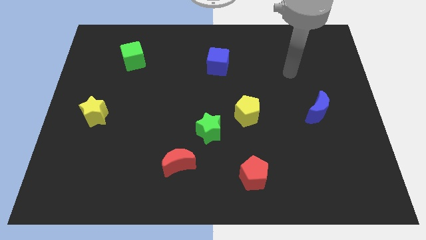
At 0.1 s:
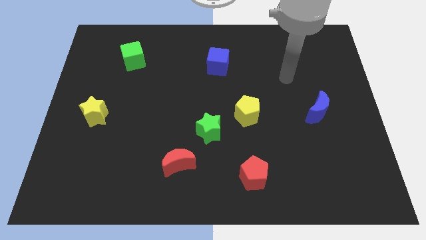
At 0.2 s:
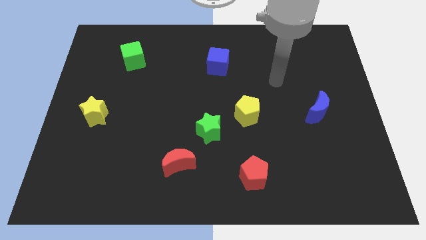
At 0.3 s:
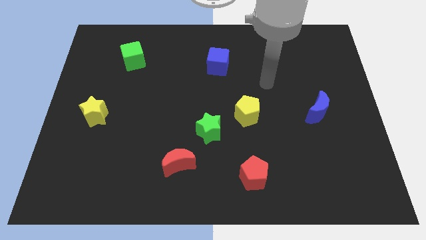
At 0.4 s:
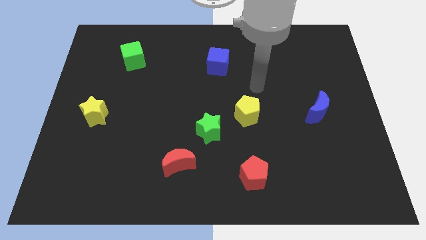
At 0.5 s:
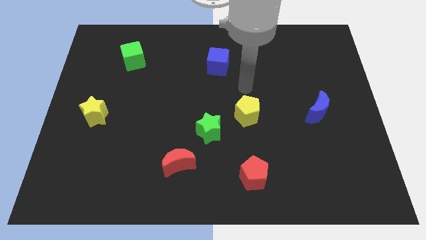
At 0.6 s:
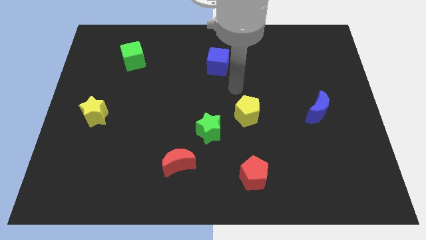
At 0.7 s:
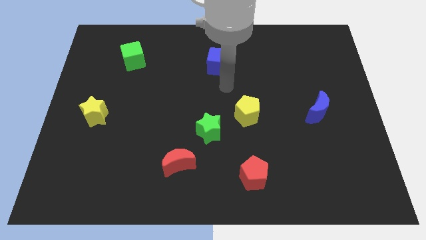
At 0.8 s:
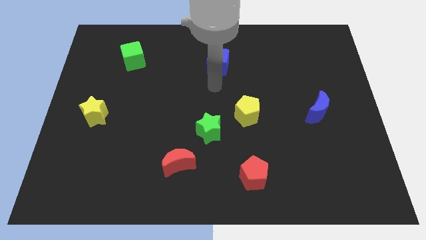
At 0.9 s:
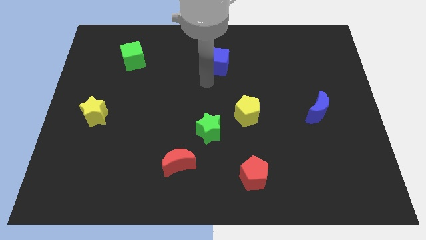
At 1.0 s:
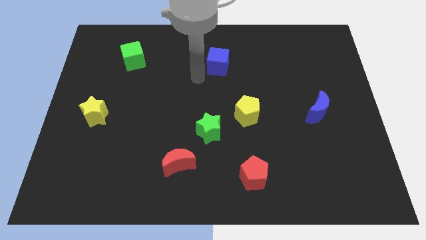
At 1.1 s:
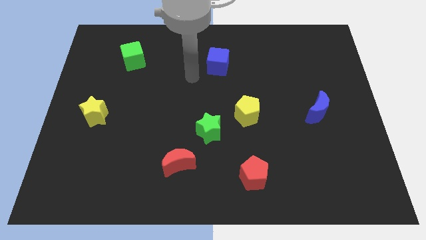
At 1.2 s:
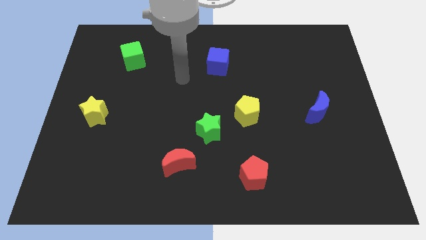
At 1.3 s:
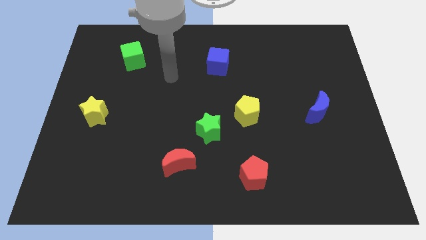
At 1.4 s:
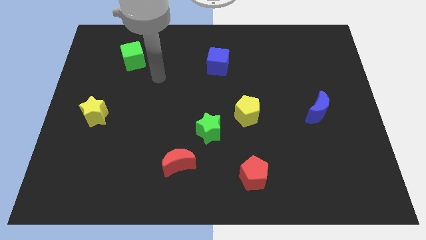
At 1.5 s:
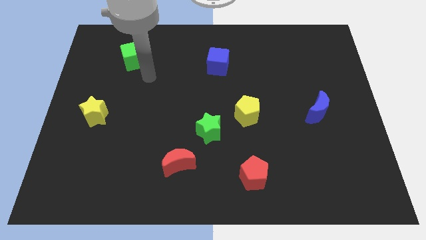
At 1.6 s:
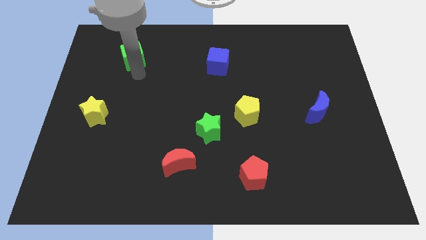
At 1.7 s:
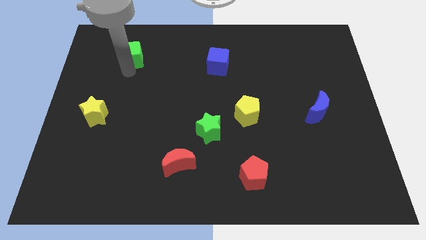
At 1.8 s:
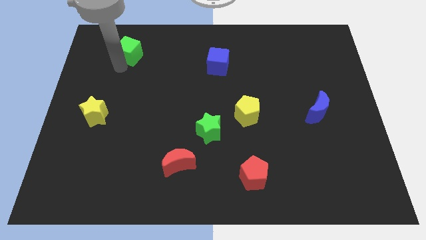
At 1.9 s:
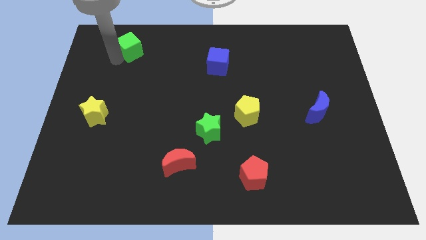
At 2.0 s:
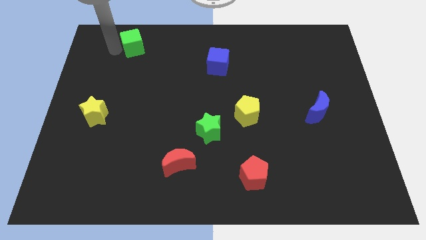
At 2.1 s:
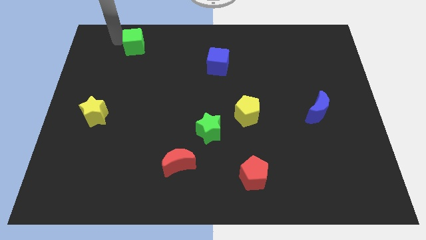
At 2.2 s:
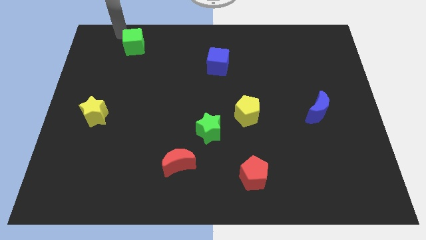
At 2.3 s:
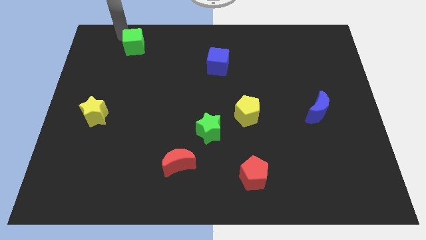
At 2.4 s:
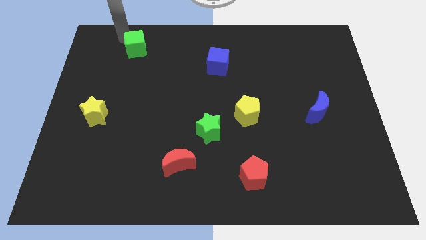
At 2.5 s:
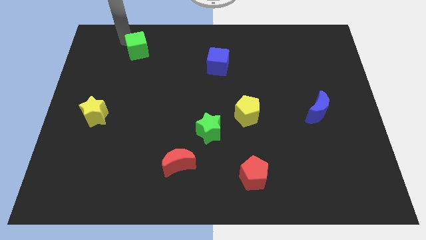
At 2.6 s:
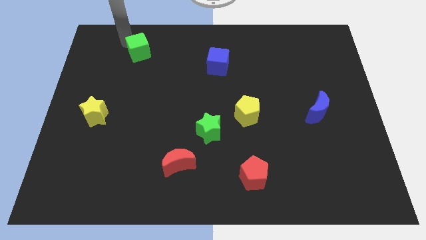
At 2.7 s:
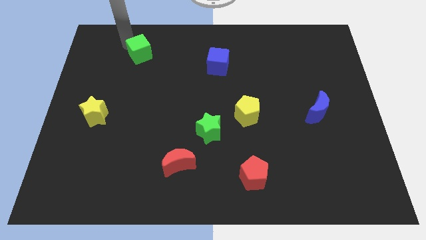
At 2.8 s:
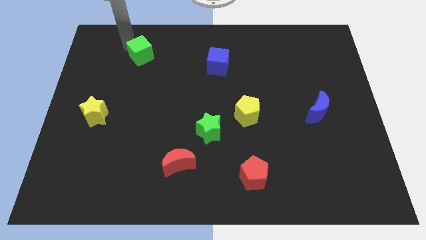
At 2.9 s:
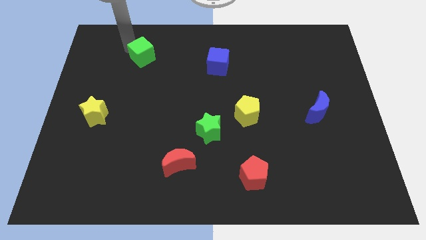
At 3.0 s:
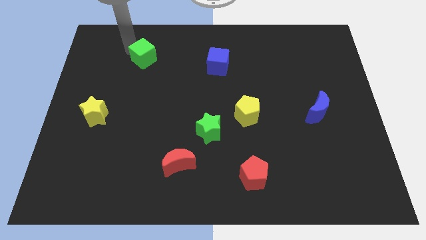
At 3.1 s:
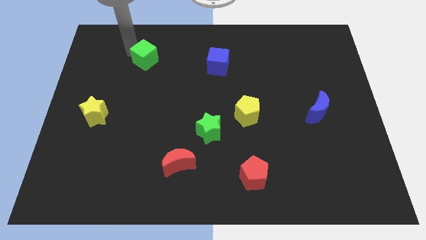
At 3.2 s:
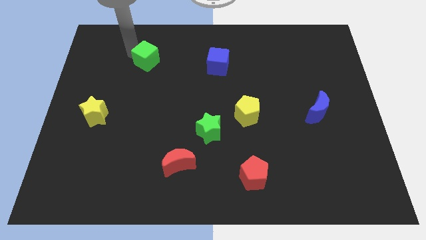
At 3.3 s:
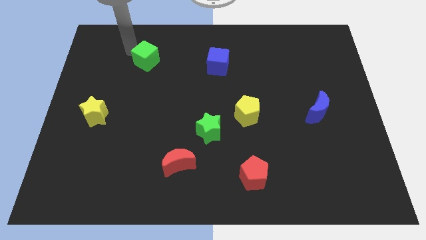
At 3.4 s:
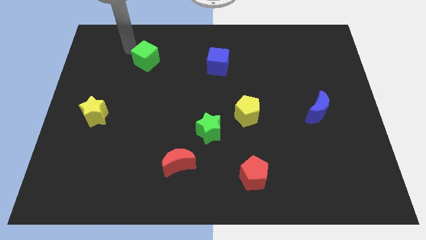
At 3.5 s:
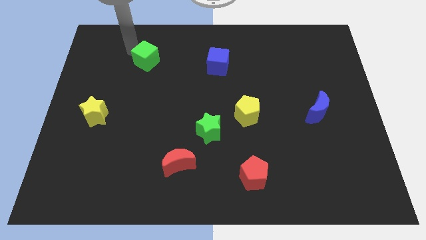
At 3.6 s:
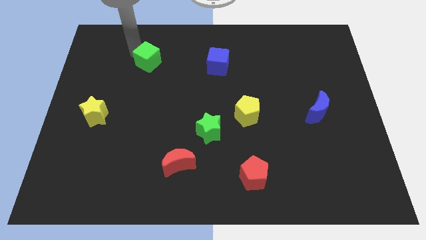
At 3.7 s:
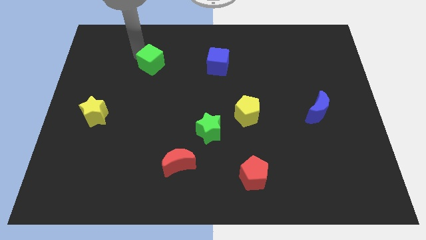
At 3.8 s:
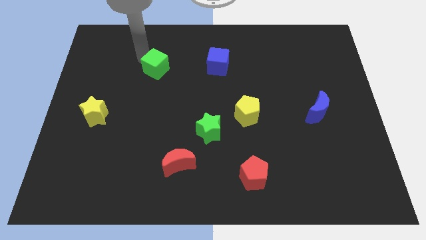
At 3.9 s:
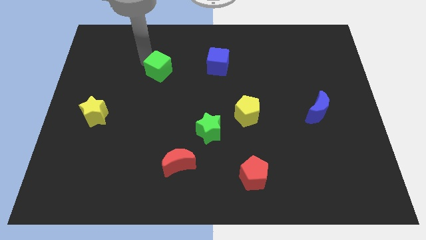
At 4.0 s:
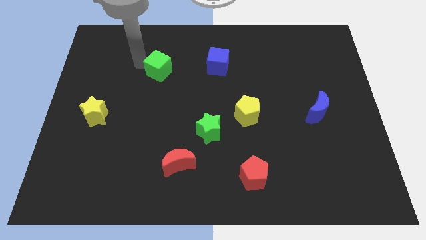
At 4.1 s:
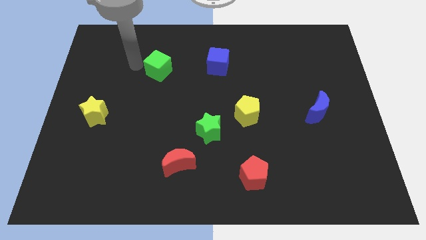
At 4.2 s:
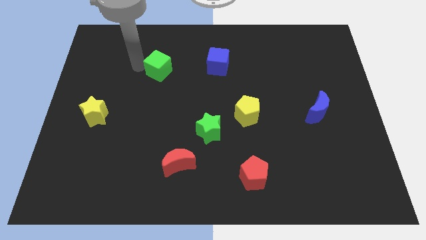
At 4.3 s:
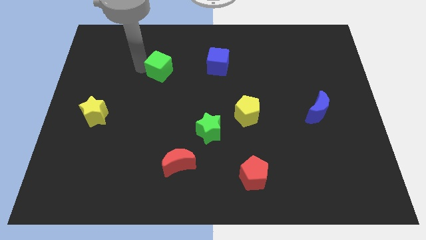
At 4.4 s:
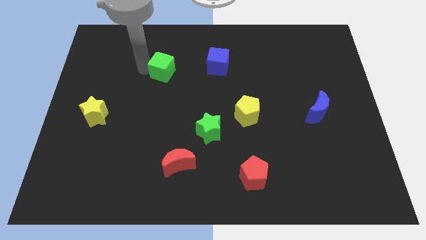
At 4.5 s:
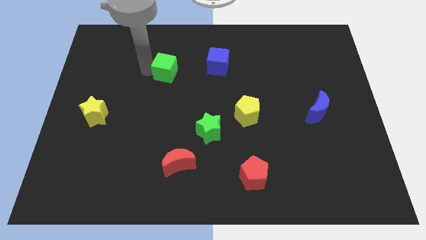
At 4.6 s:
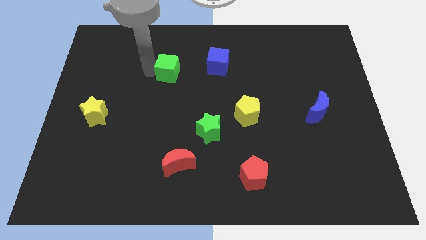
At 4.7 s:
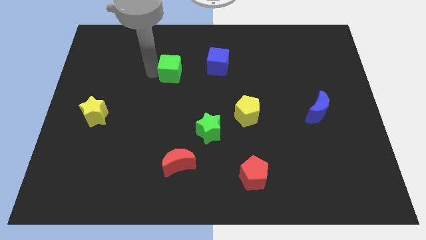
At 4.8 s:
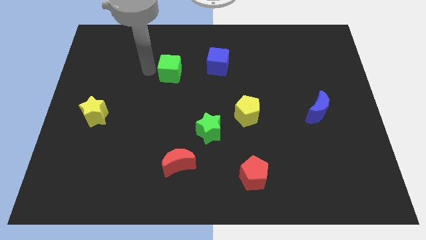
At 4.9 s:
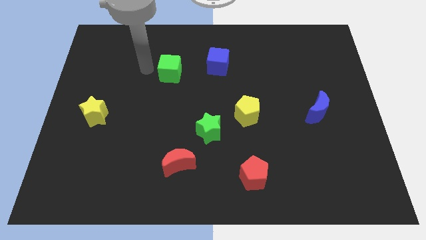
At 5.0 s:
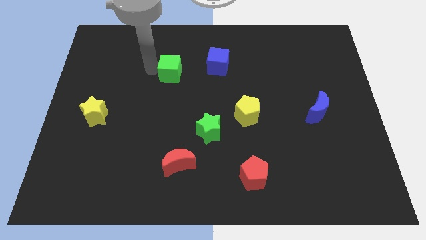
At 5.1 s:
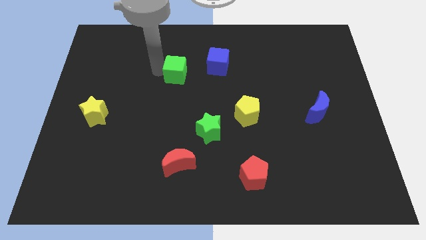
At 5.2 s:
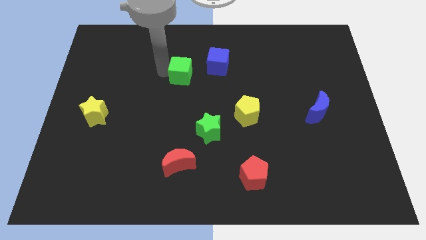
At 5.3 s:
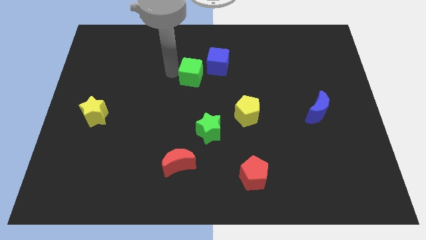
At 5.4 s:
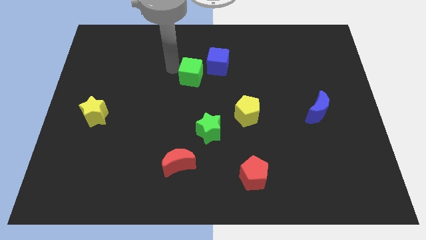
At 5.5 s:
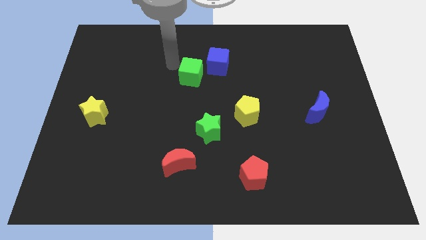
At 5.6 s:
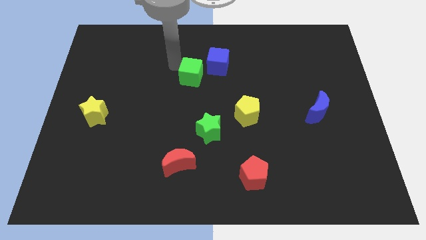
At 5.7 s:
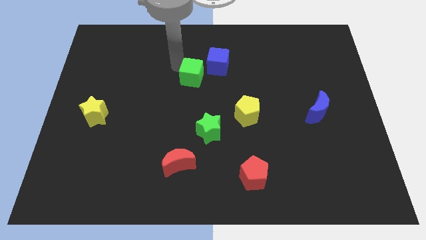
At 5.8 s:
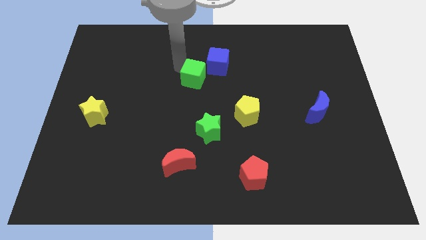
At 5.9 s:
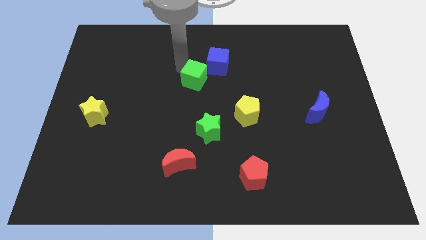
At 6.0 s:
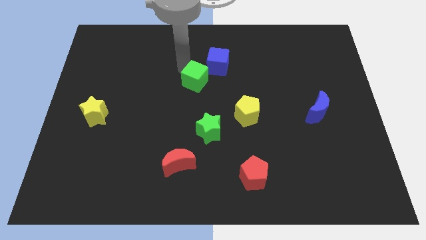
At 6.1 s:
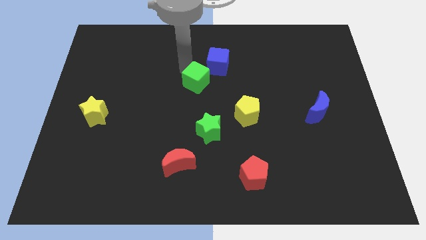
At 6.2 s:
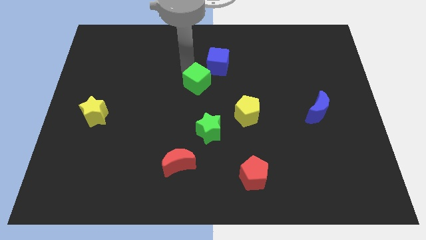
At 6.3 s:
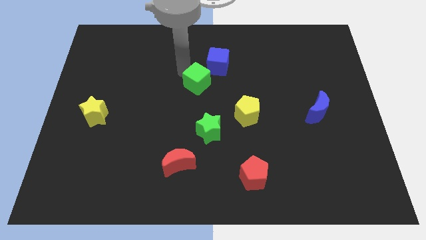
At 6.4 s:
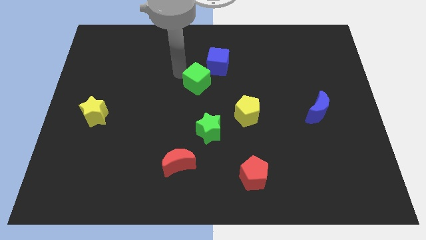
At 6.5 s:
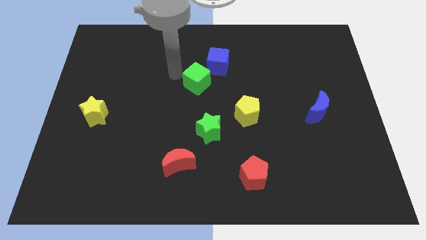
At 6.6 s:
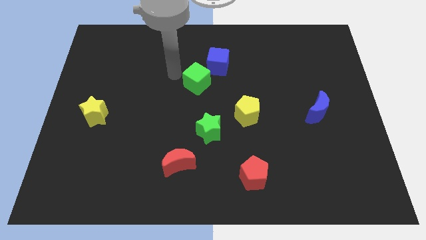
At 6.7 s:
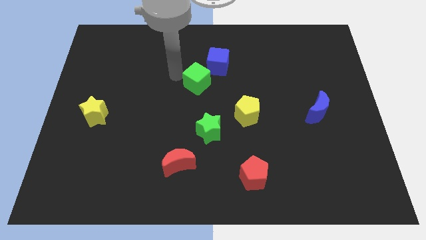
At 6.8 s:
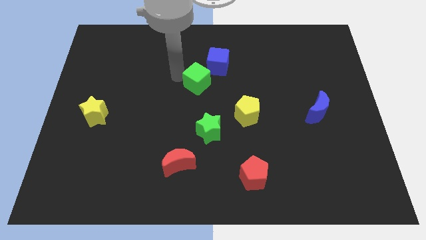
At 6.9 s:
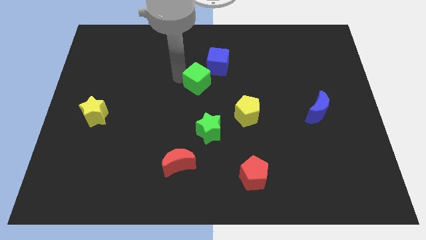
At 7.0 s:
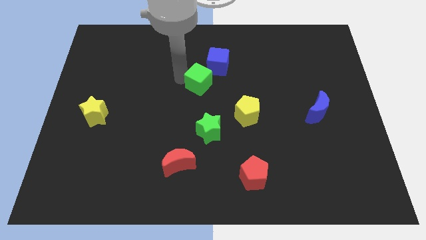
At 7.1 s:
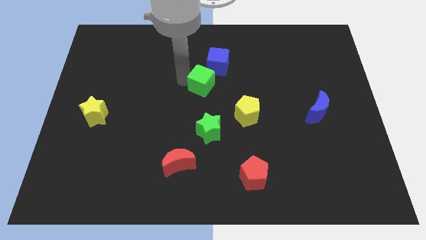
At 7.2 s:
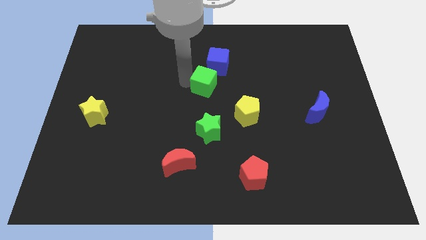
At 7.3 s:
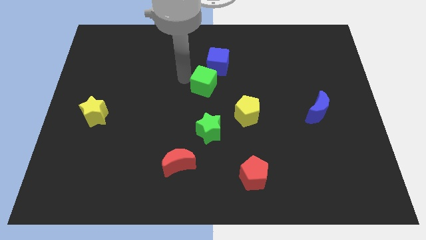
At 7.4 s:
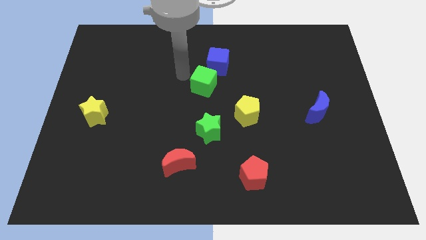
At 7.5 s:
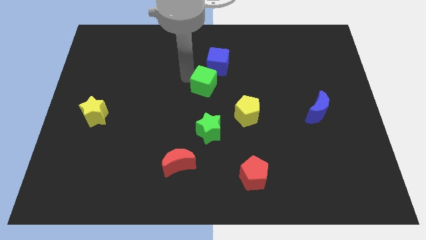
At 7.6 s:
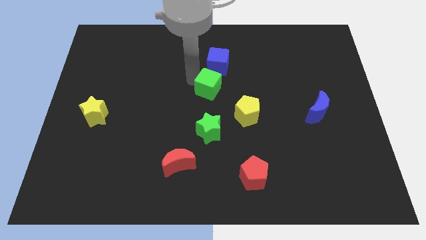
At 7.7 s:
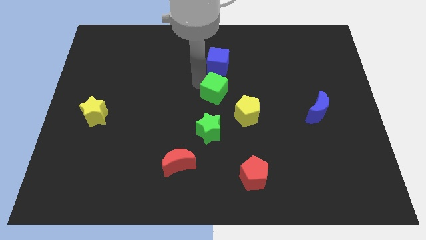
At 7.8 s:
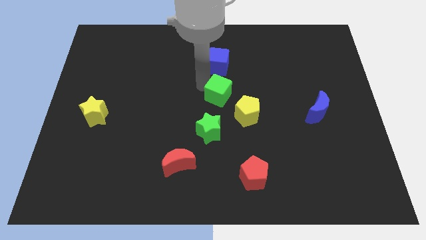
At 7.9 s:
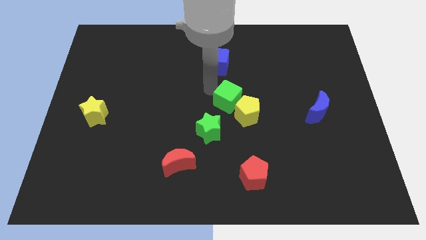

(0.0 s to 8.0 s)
put the green cube to the yellow pentagon

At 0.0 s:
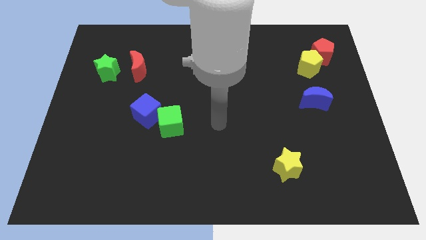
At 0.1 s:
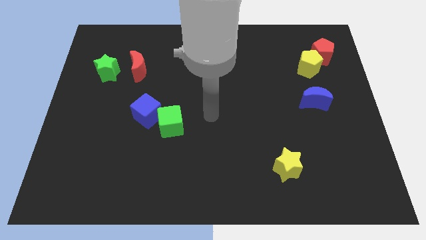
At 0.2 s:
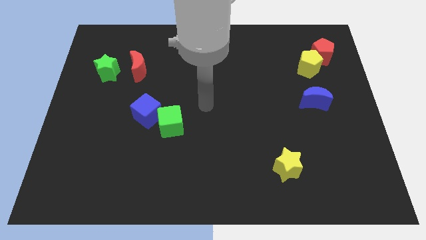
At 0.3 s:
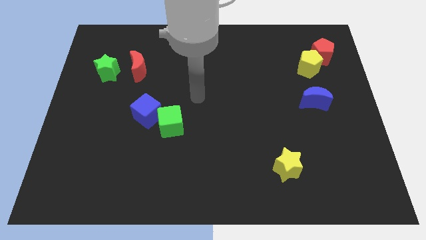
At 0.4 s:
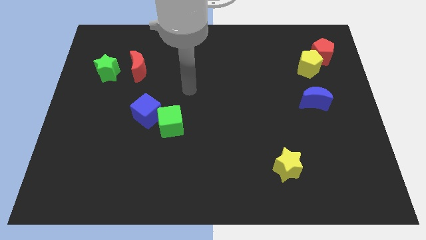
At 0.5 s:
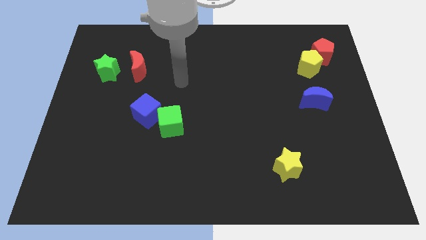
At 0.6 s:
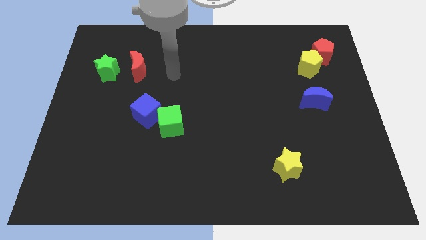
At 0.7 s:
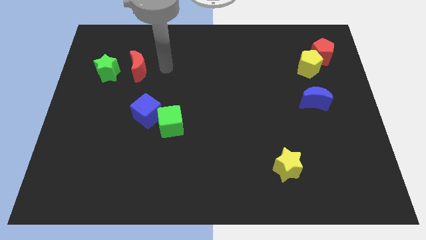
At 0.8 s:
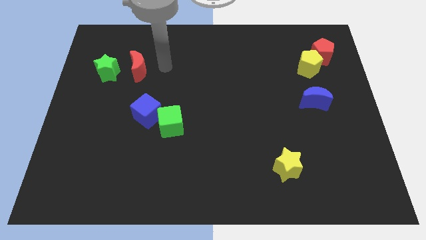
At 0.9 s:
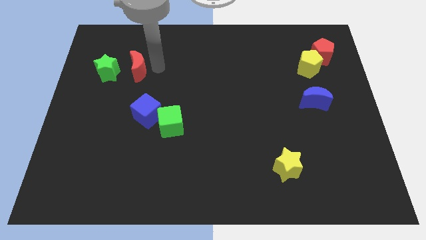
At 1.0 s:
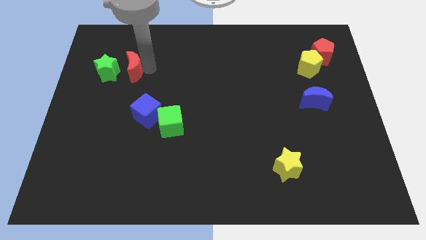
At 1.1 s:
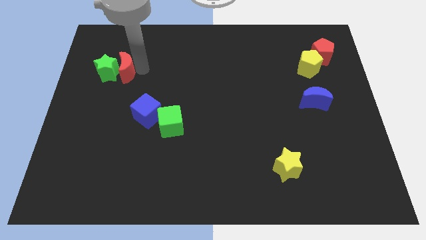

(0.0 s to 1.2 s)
move the red moon close to the green star
